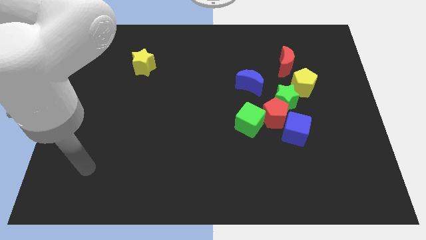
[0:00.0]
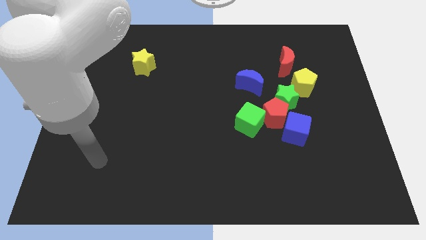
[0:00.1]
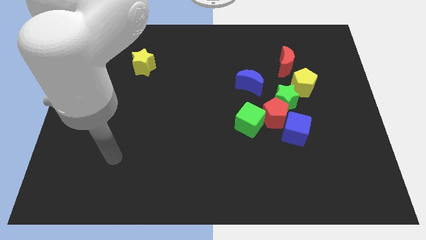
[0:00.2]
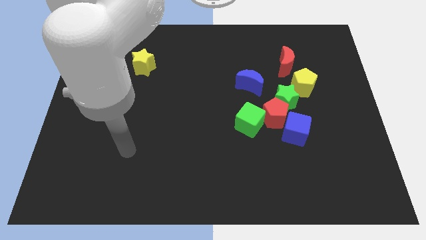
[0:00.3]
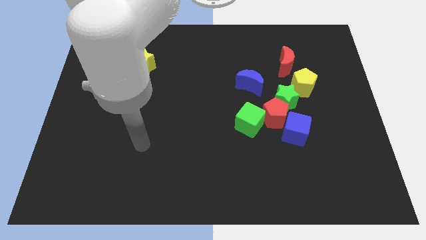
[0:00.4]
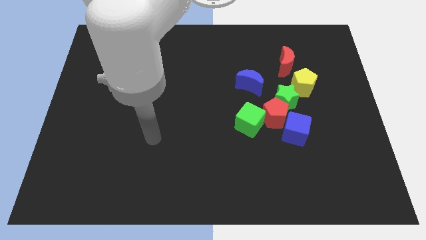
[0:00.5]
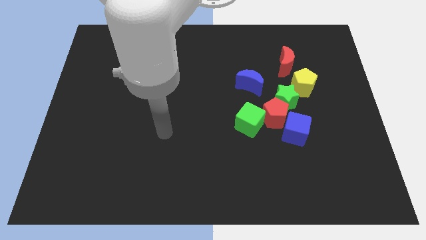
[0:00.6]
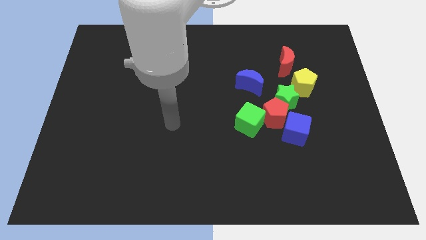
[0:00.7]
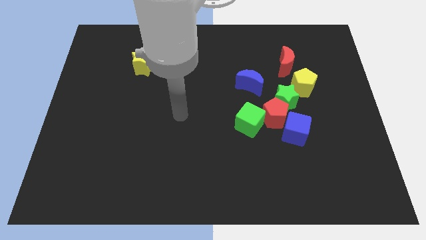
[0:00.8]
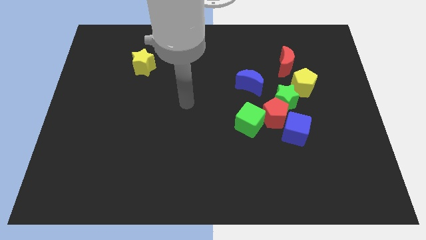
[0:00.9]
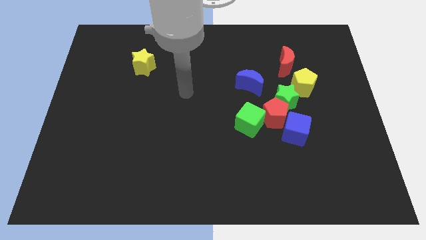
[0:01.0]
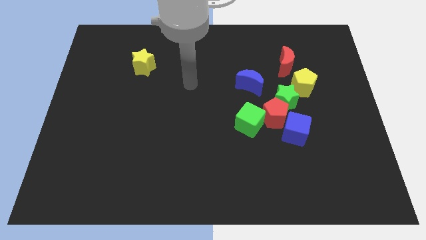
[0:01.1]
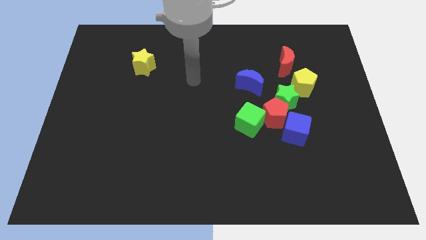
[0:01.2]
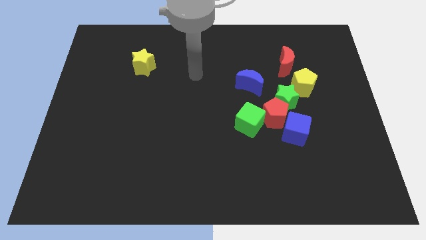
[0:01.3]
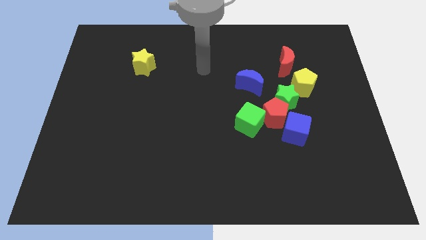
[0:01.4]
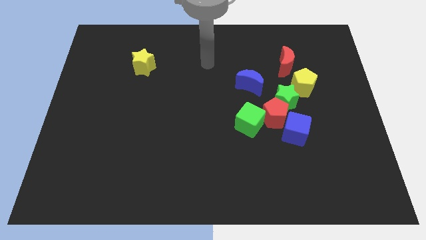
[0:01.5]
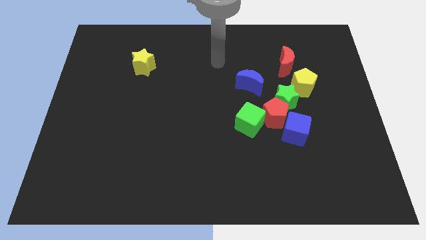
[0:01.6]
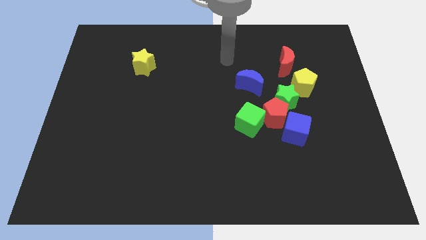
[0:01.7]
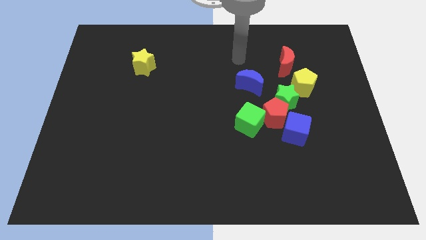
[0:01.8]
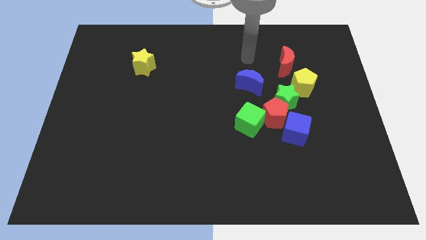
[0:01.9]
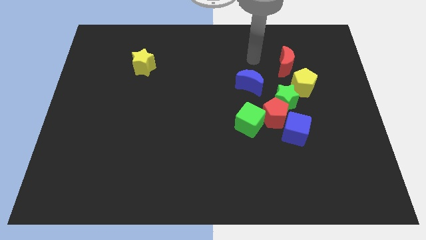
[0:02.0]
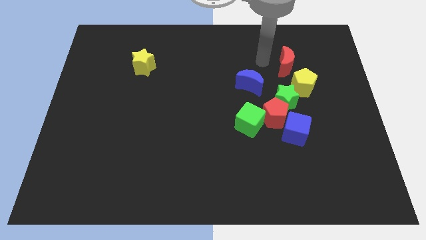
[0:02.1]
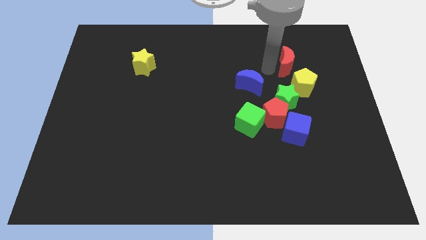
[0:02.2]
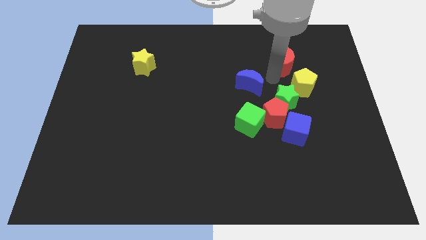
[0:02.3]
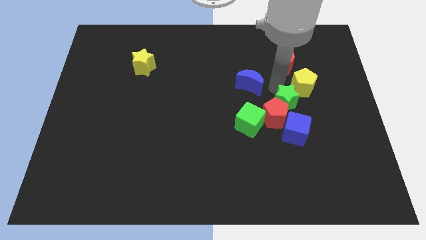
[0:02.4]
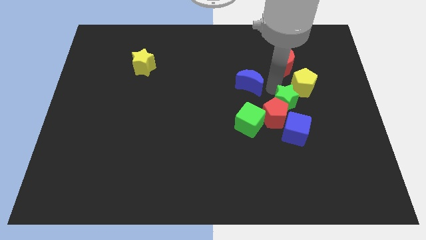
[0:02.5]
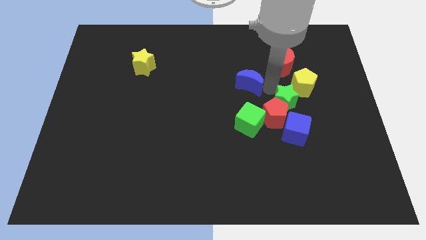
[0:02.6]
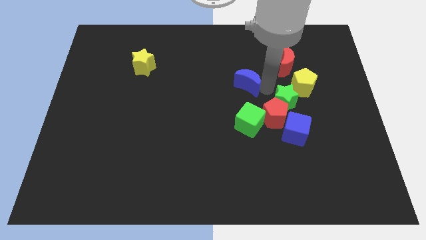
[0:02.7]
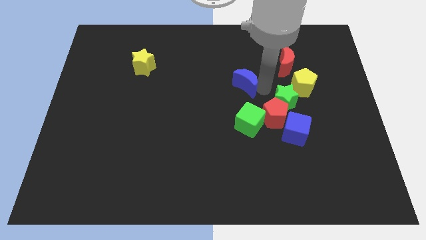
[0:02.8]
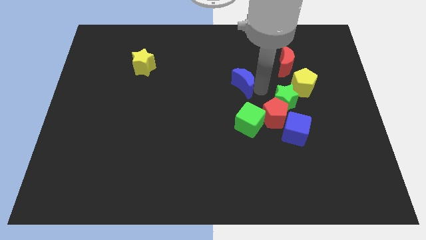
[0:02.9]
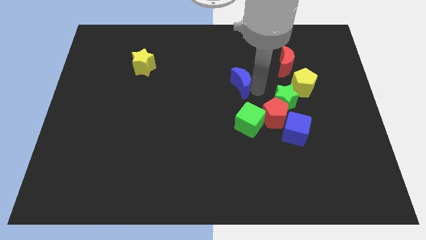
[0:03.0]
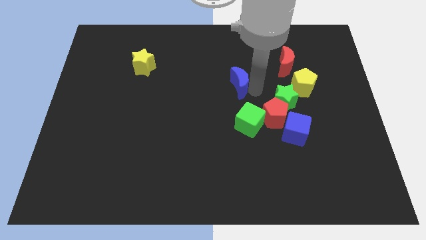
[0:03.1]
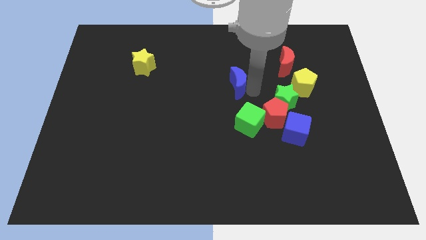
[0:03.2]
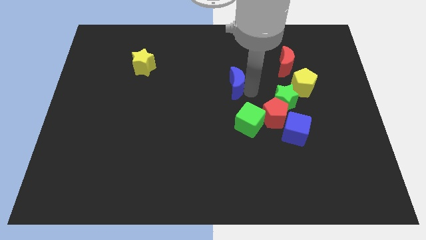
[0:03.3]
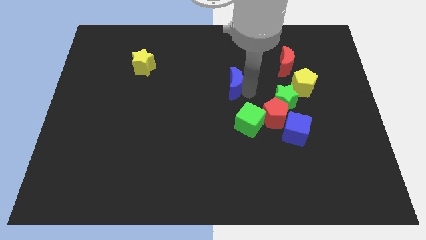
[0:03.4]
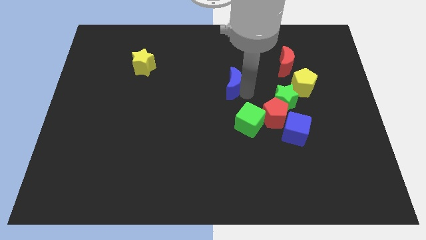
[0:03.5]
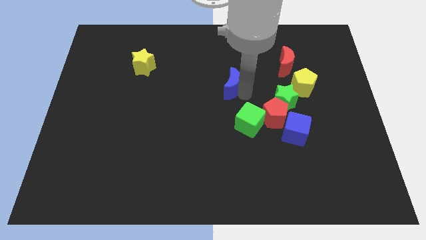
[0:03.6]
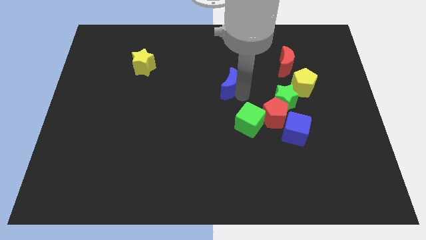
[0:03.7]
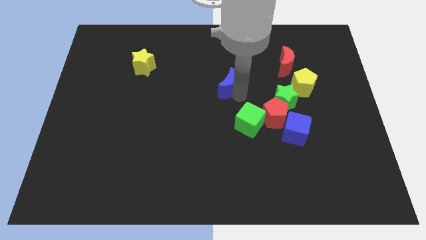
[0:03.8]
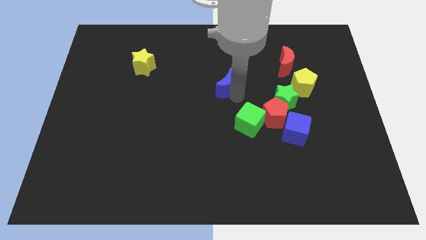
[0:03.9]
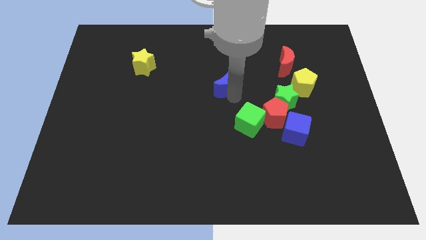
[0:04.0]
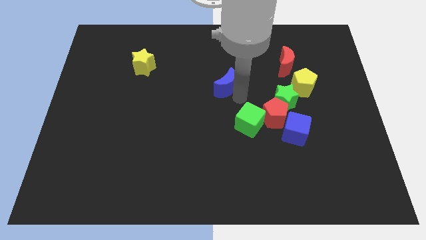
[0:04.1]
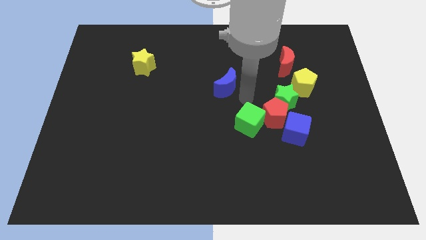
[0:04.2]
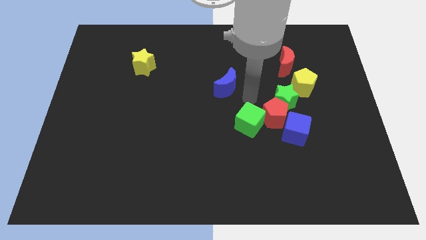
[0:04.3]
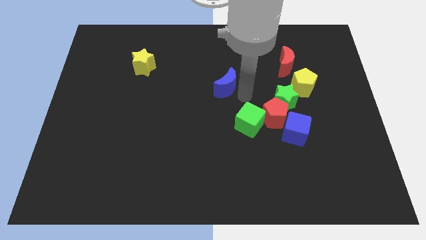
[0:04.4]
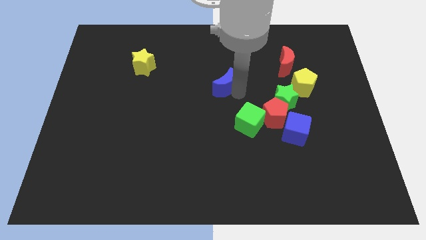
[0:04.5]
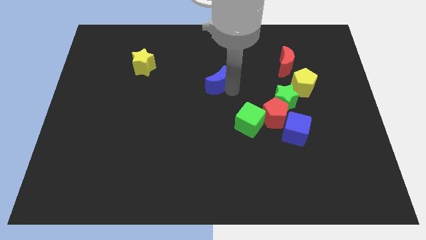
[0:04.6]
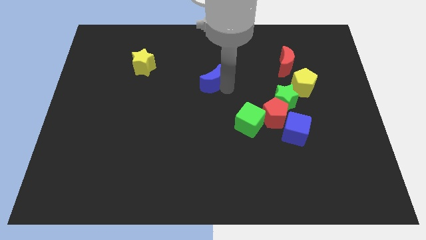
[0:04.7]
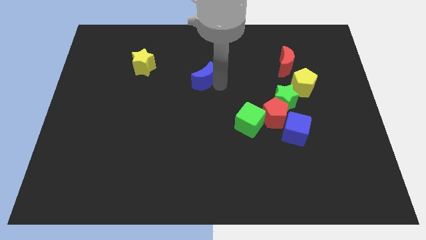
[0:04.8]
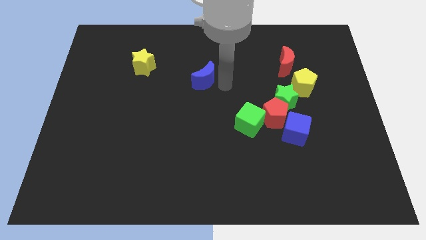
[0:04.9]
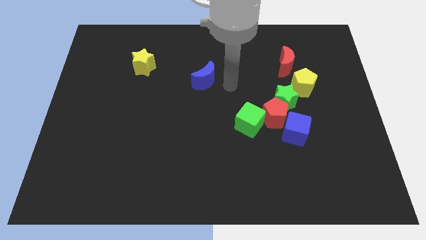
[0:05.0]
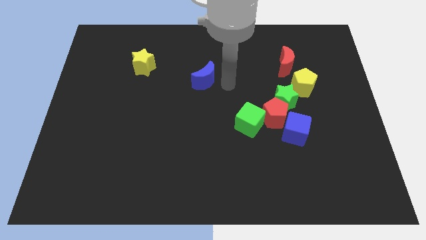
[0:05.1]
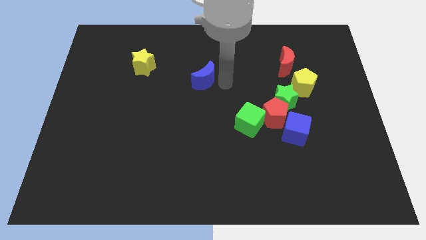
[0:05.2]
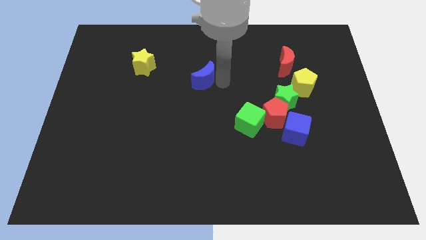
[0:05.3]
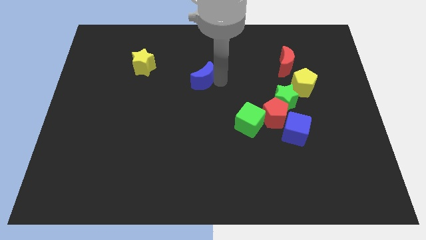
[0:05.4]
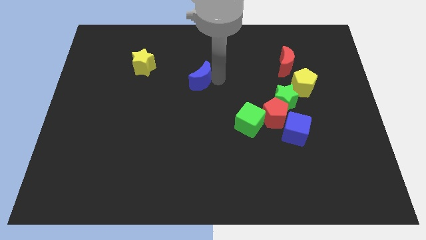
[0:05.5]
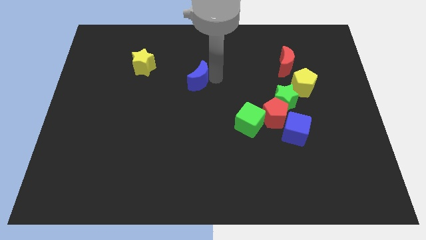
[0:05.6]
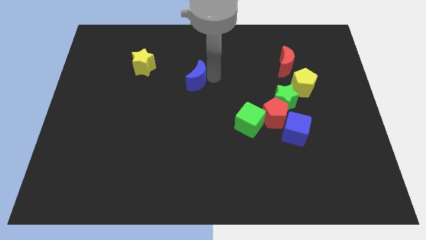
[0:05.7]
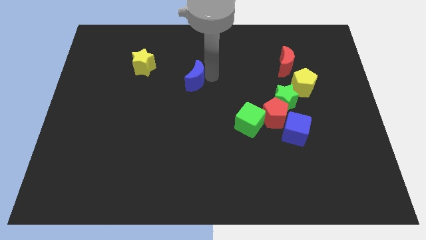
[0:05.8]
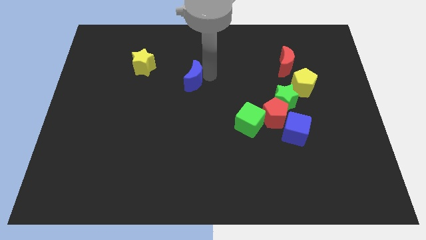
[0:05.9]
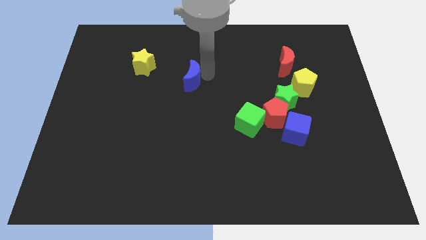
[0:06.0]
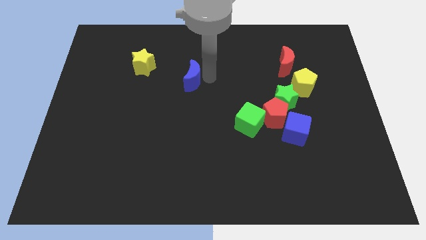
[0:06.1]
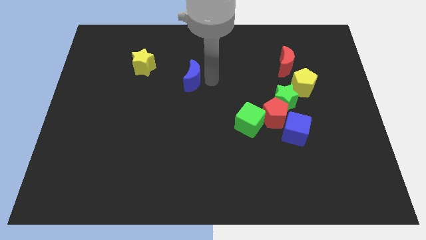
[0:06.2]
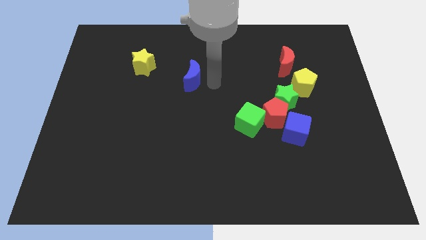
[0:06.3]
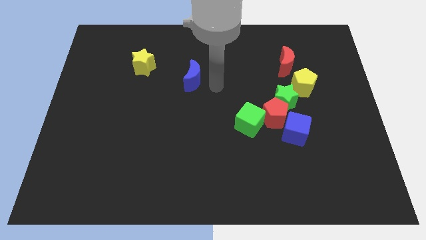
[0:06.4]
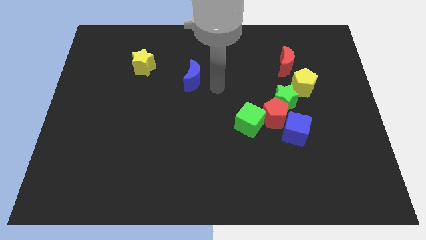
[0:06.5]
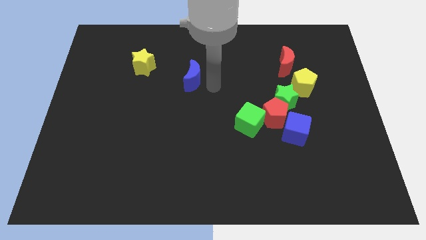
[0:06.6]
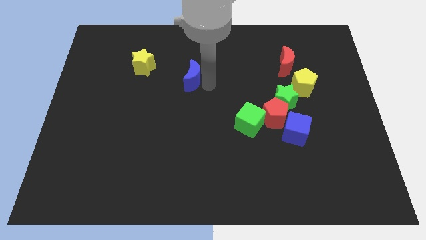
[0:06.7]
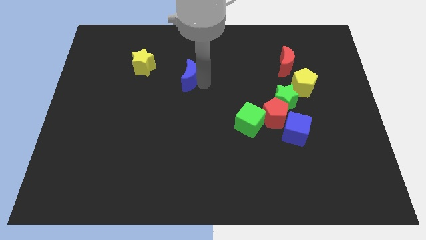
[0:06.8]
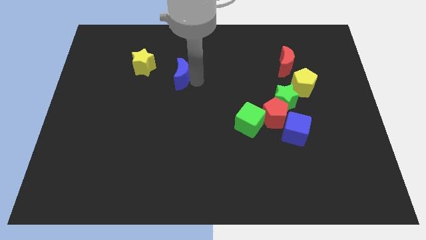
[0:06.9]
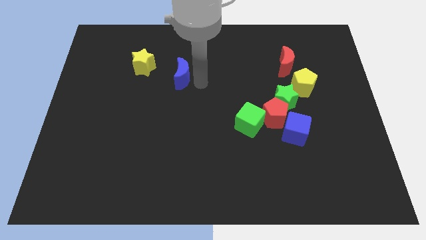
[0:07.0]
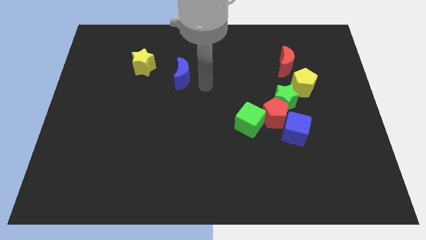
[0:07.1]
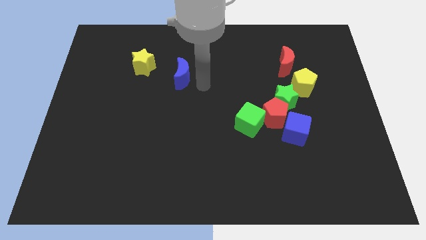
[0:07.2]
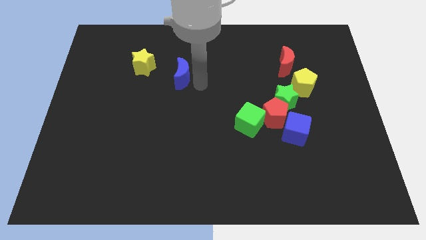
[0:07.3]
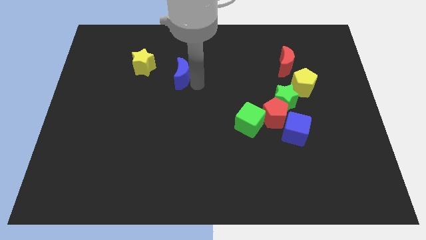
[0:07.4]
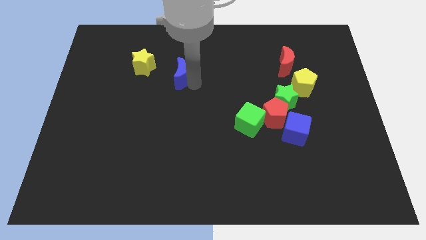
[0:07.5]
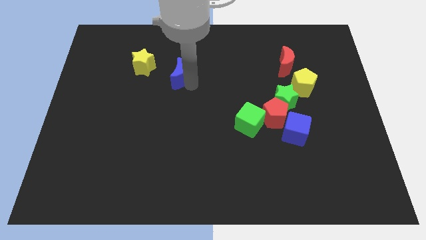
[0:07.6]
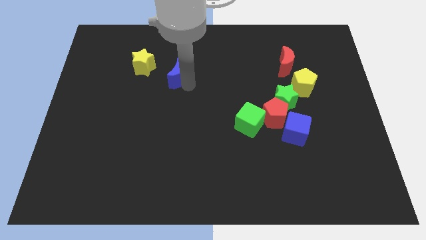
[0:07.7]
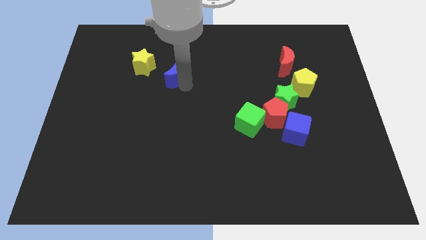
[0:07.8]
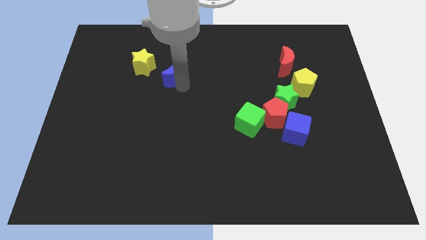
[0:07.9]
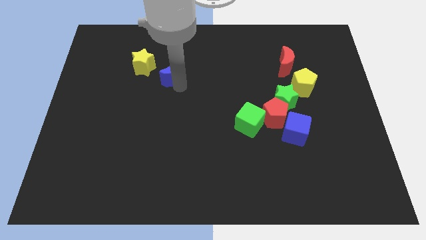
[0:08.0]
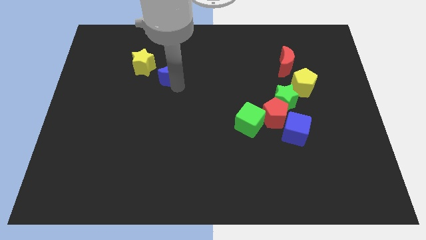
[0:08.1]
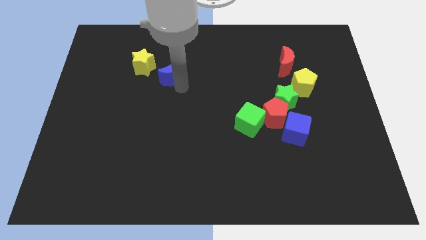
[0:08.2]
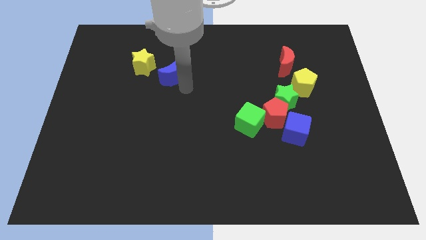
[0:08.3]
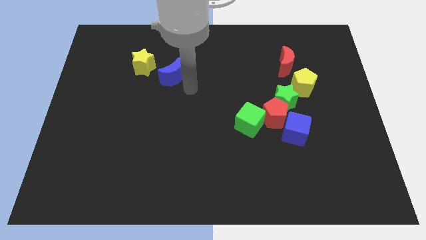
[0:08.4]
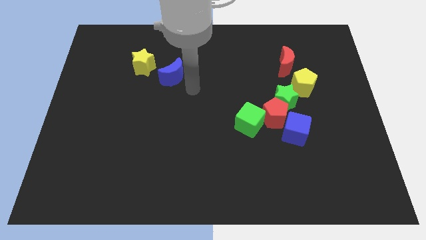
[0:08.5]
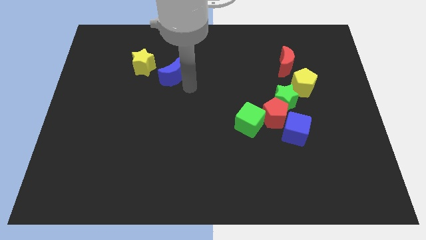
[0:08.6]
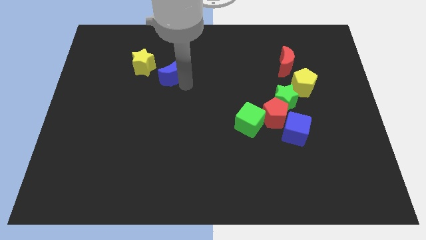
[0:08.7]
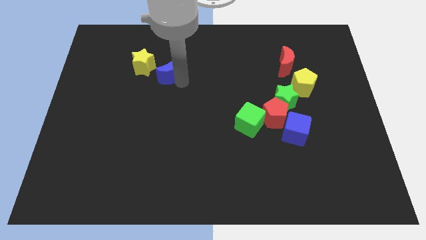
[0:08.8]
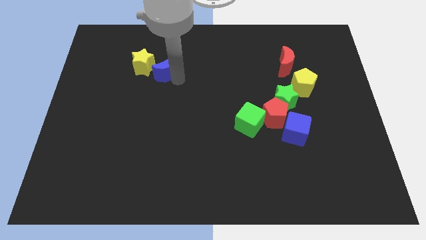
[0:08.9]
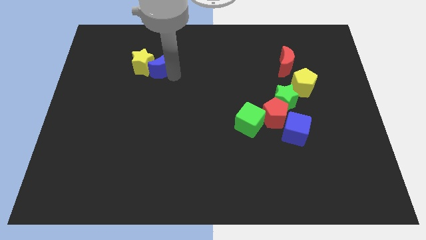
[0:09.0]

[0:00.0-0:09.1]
move the blue moon close to the yellow star
